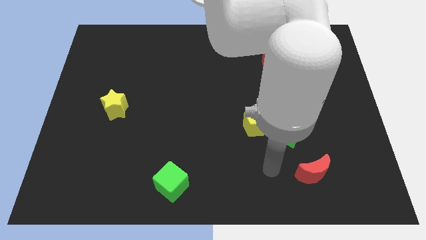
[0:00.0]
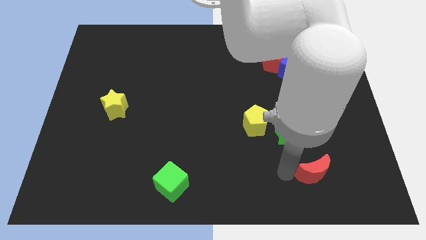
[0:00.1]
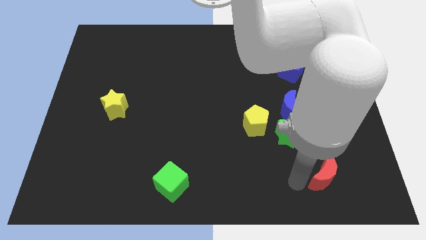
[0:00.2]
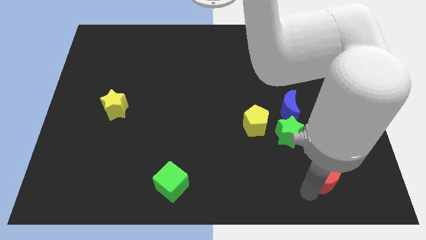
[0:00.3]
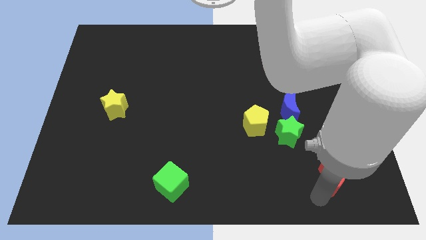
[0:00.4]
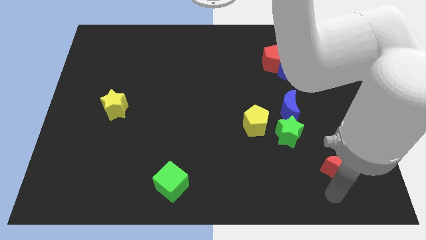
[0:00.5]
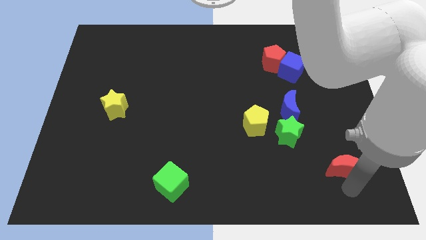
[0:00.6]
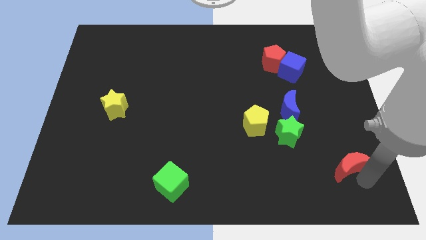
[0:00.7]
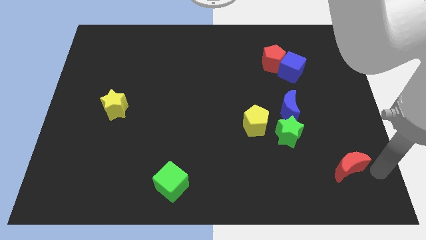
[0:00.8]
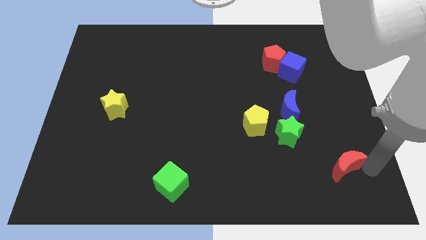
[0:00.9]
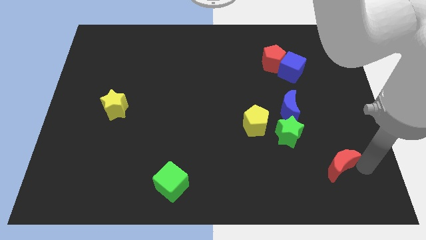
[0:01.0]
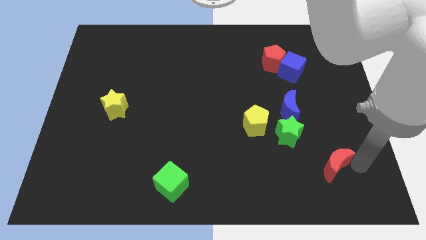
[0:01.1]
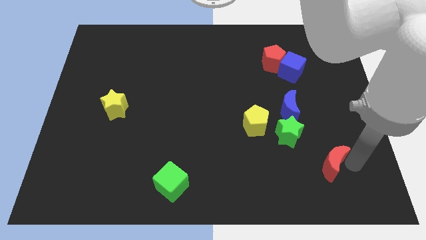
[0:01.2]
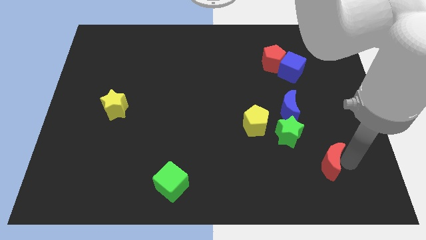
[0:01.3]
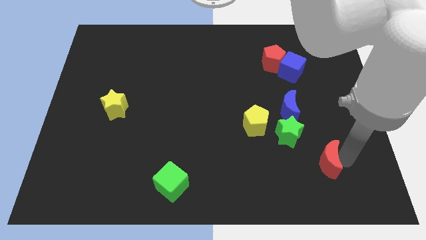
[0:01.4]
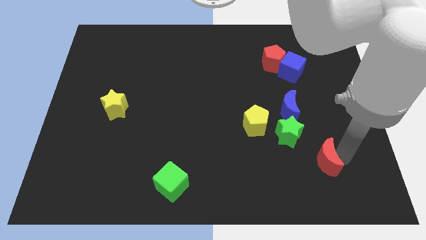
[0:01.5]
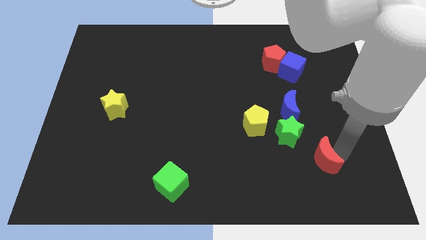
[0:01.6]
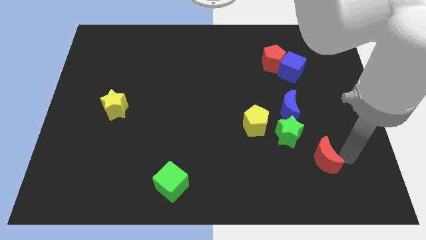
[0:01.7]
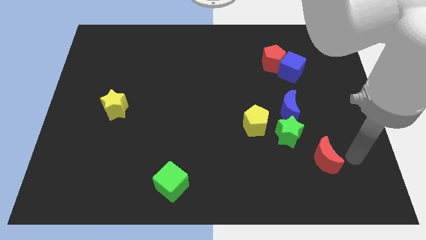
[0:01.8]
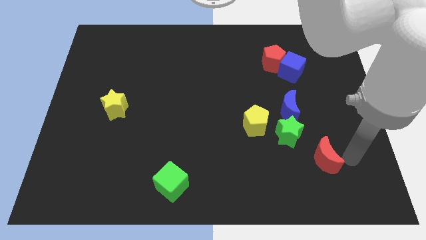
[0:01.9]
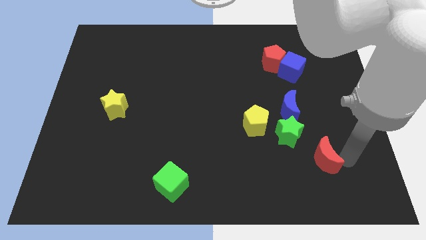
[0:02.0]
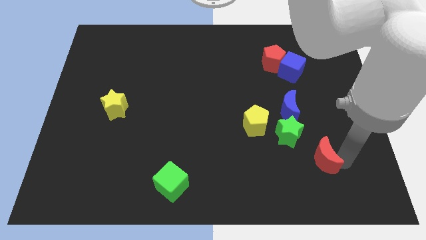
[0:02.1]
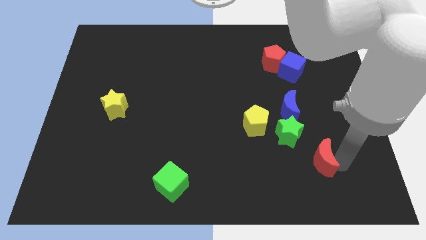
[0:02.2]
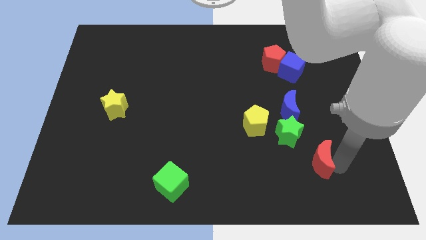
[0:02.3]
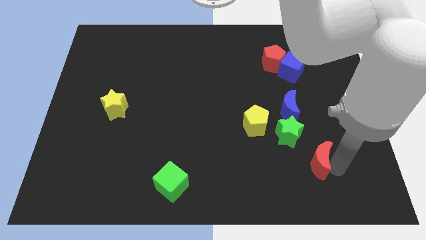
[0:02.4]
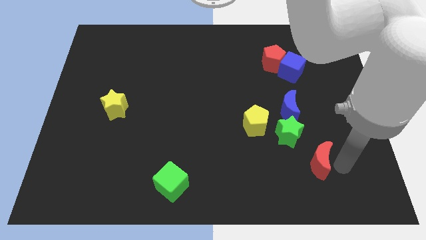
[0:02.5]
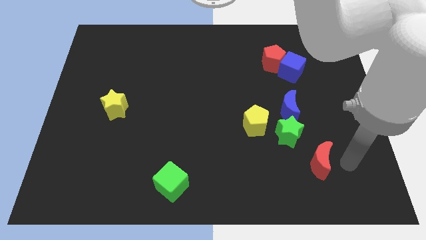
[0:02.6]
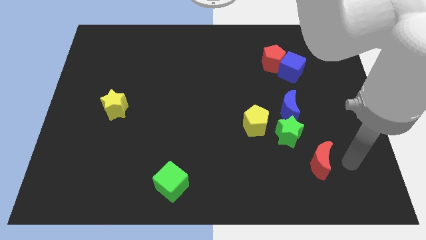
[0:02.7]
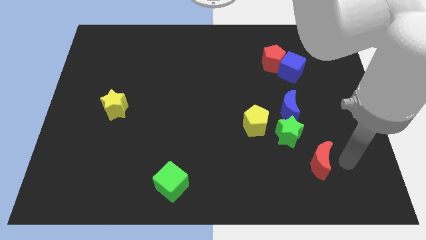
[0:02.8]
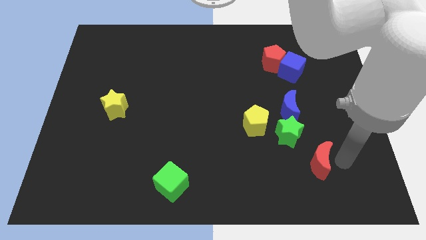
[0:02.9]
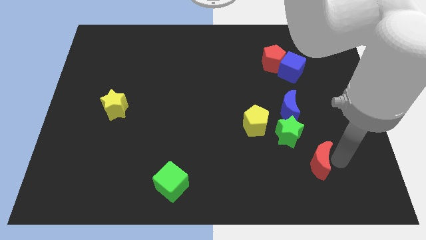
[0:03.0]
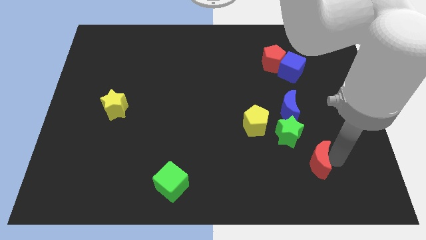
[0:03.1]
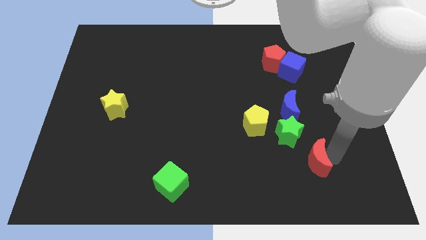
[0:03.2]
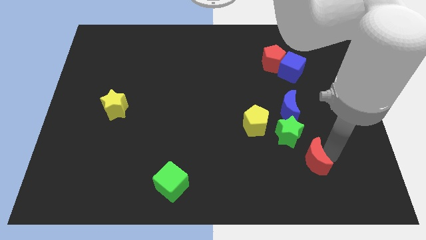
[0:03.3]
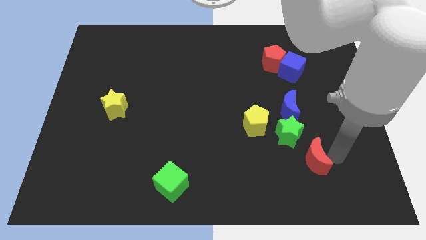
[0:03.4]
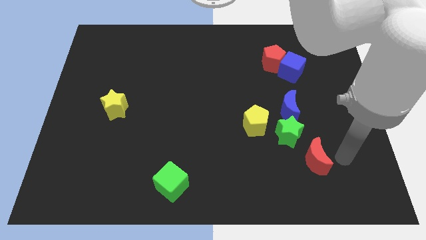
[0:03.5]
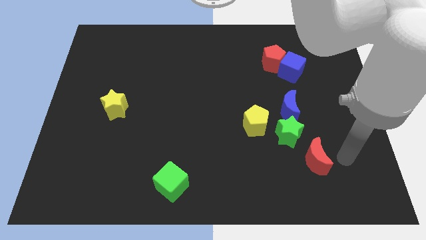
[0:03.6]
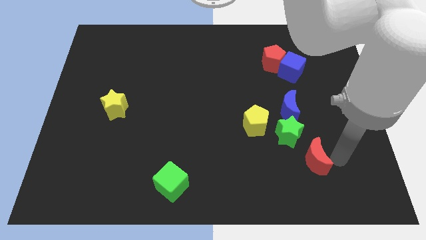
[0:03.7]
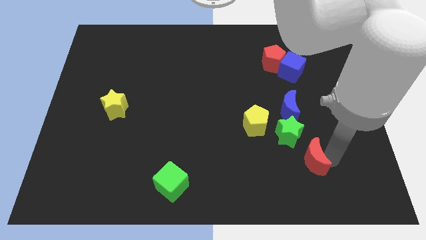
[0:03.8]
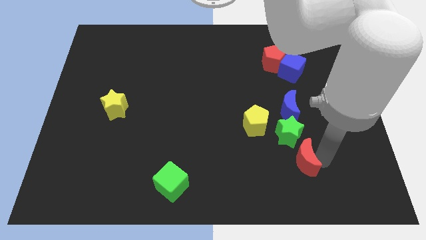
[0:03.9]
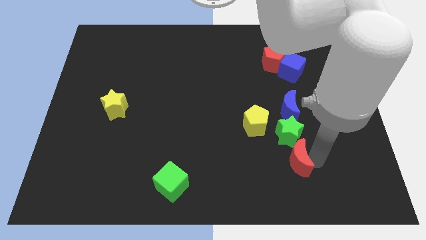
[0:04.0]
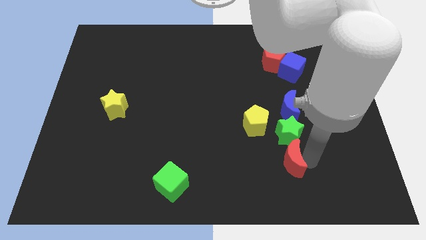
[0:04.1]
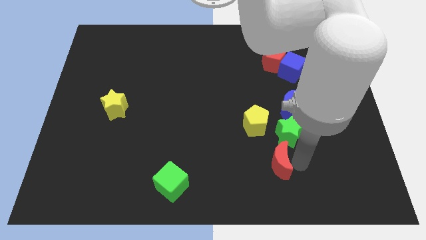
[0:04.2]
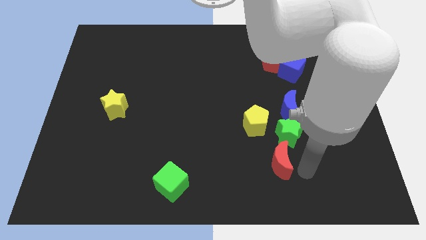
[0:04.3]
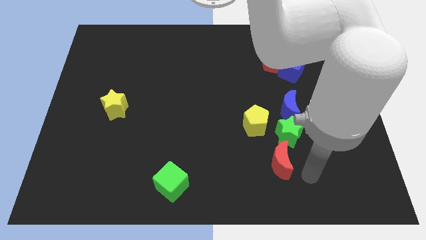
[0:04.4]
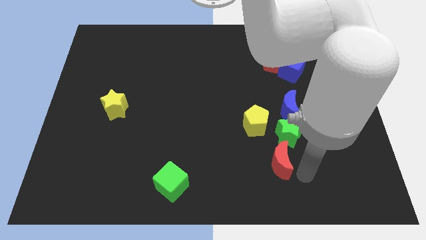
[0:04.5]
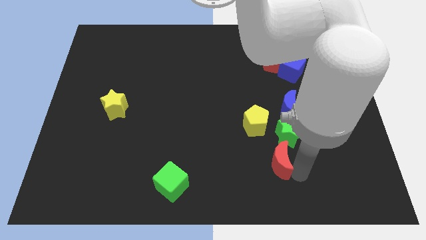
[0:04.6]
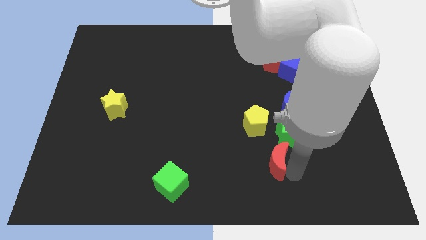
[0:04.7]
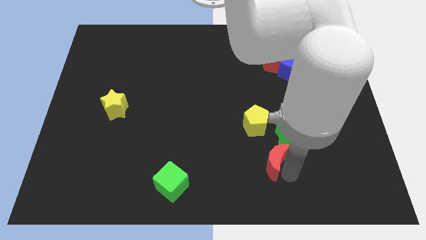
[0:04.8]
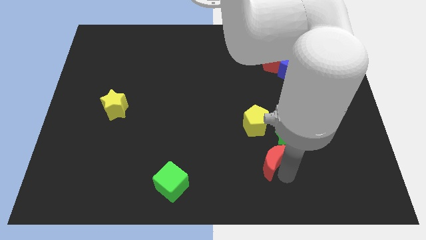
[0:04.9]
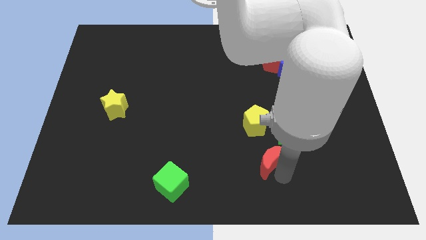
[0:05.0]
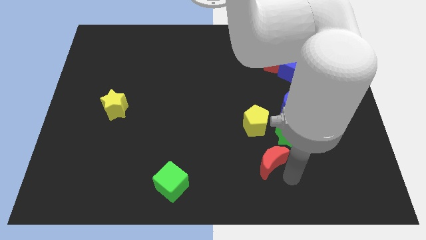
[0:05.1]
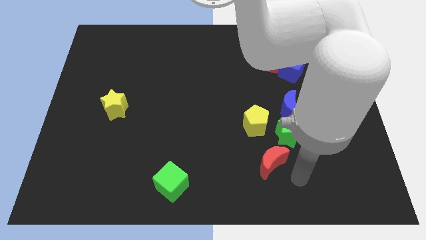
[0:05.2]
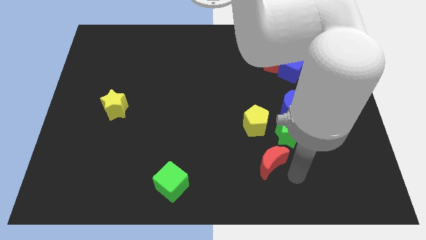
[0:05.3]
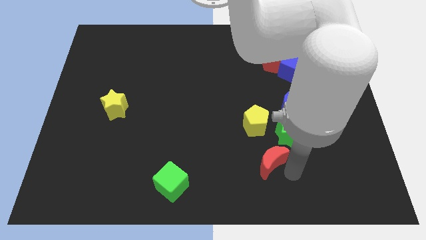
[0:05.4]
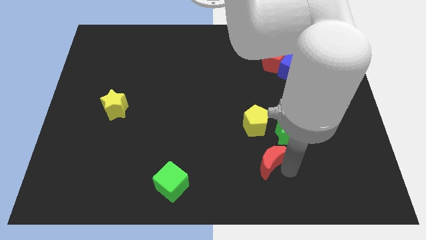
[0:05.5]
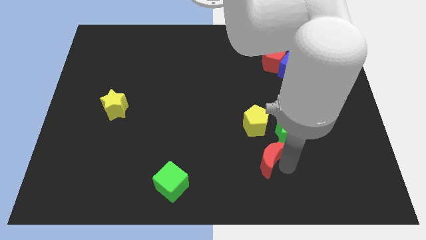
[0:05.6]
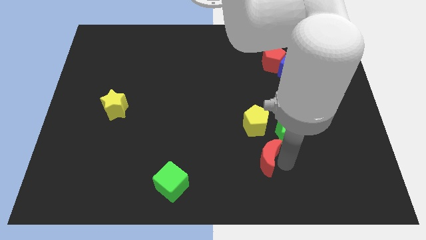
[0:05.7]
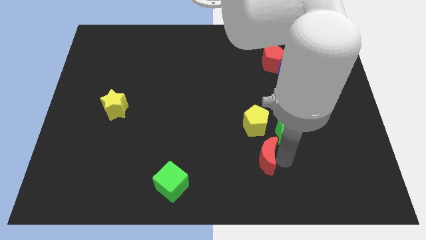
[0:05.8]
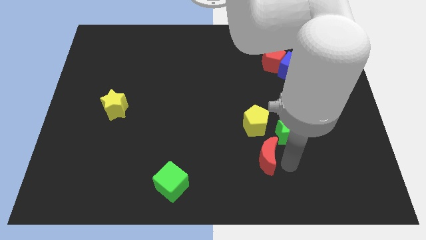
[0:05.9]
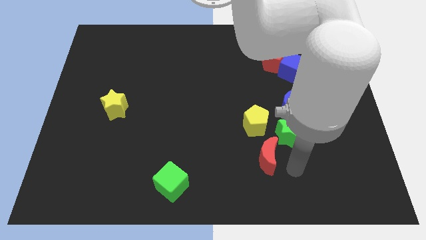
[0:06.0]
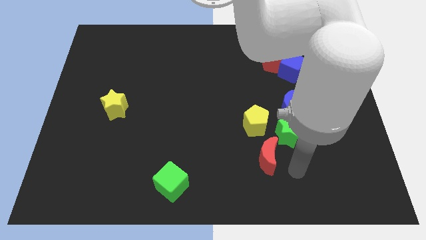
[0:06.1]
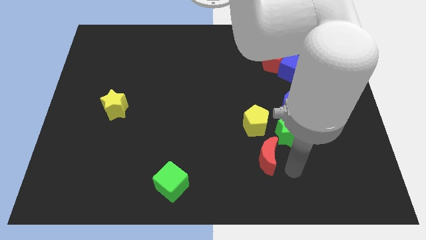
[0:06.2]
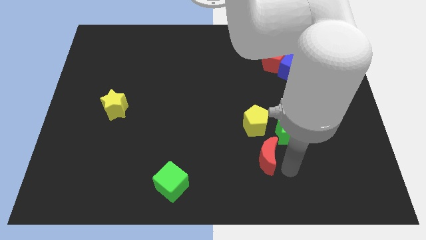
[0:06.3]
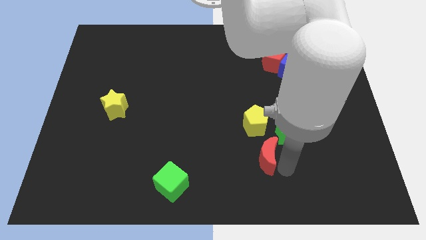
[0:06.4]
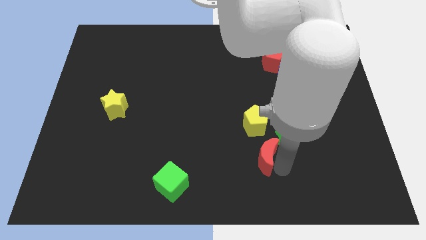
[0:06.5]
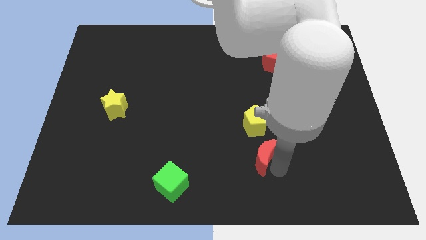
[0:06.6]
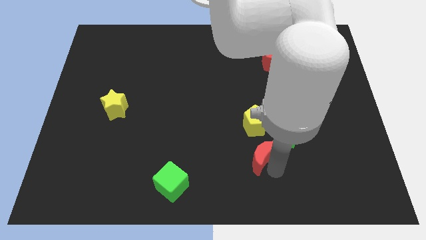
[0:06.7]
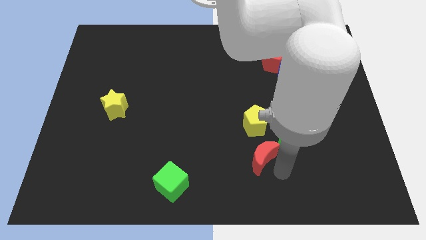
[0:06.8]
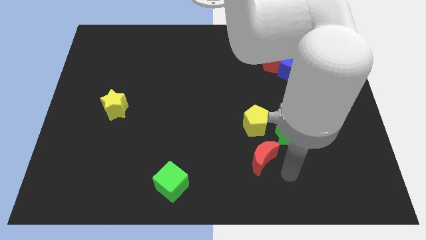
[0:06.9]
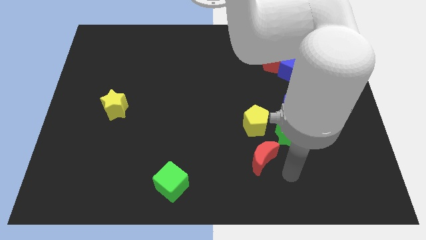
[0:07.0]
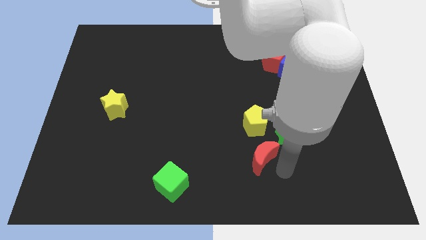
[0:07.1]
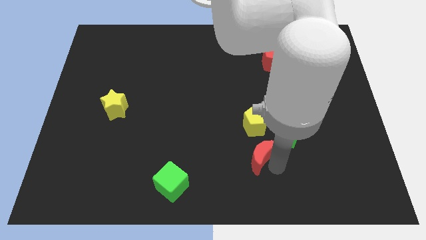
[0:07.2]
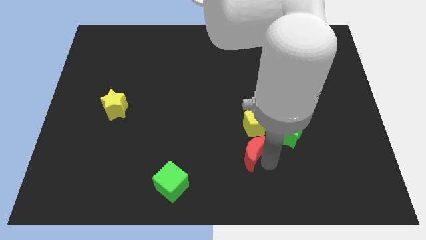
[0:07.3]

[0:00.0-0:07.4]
slide the red moon to the bottom left side of the yellow pentagon
